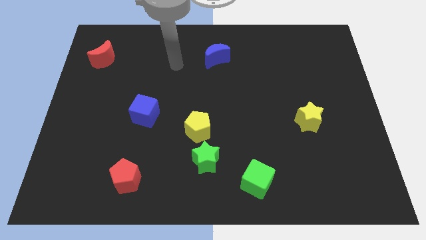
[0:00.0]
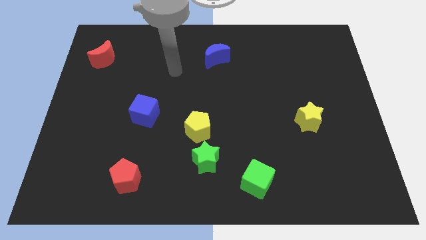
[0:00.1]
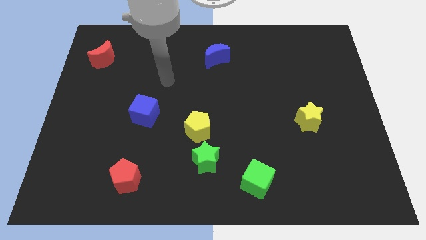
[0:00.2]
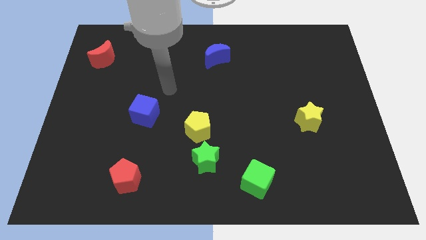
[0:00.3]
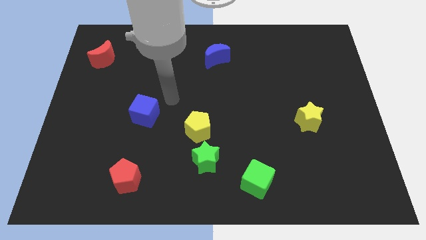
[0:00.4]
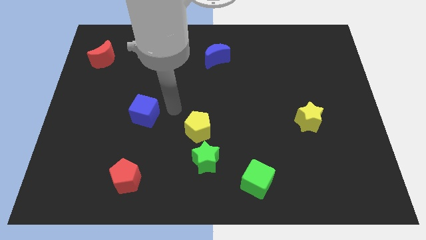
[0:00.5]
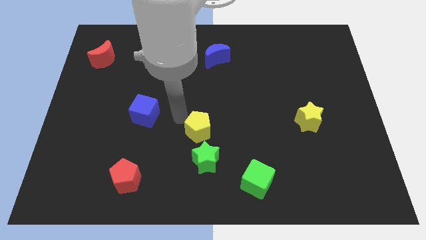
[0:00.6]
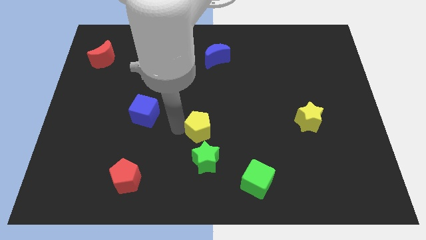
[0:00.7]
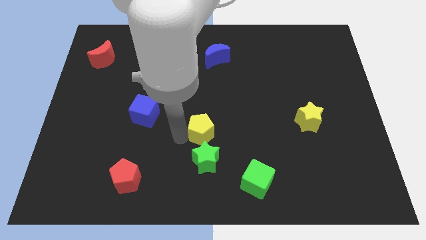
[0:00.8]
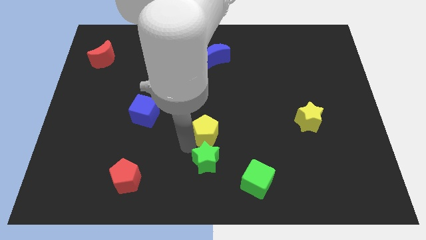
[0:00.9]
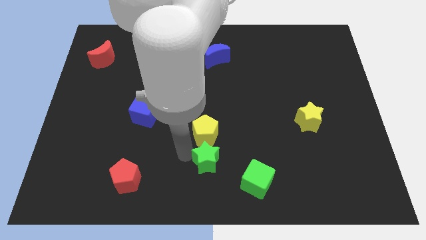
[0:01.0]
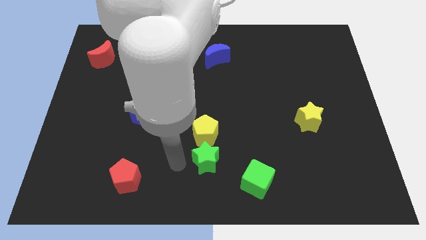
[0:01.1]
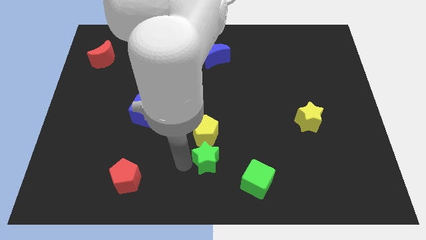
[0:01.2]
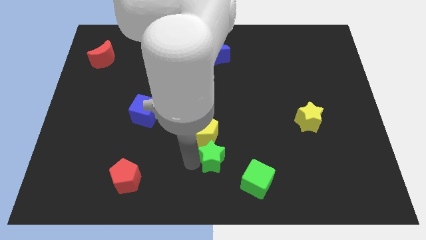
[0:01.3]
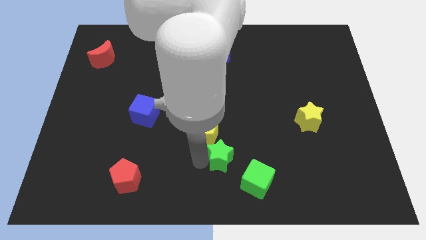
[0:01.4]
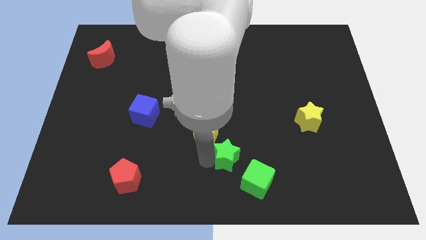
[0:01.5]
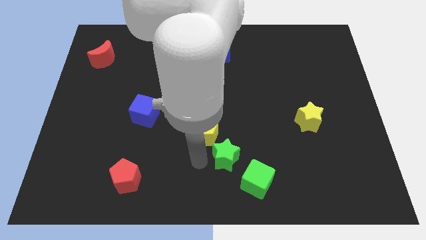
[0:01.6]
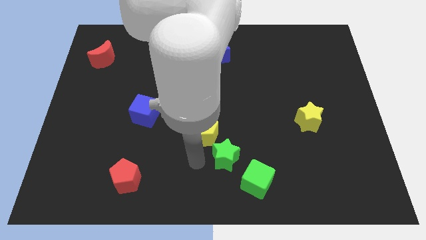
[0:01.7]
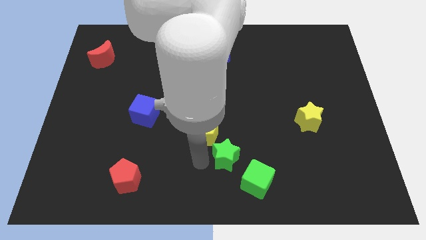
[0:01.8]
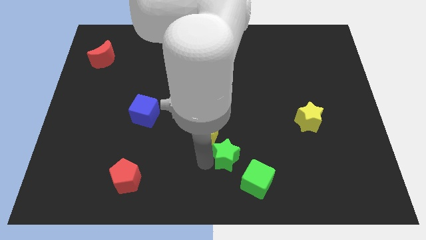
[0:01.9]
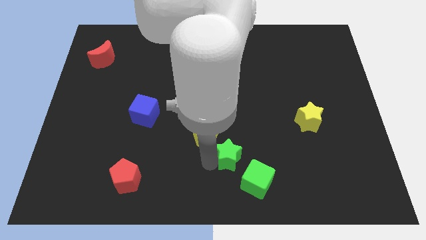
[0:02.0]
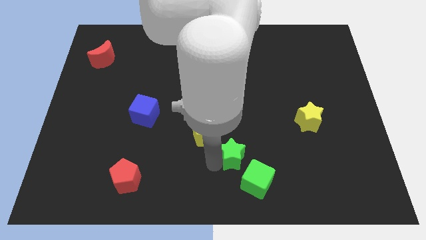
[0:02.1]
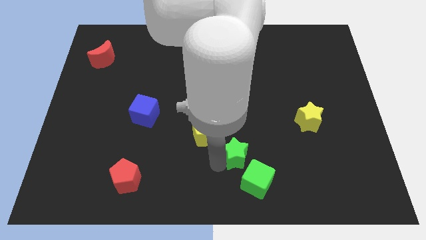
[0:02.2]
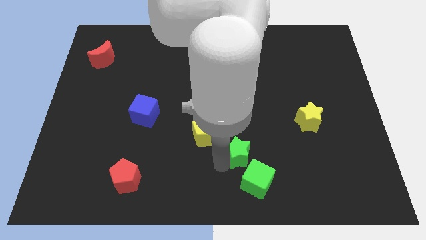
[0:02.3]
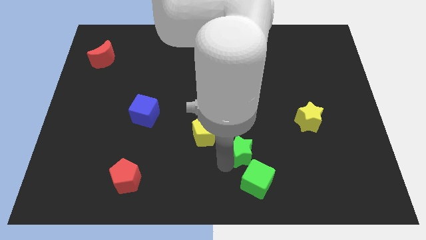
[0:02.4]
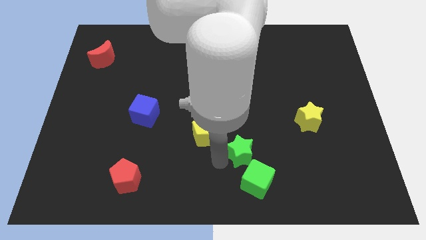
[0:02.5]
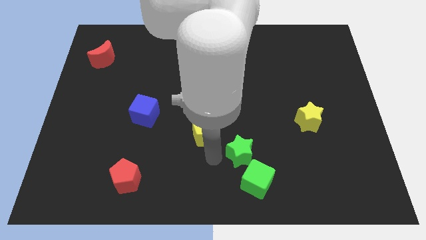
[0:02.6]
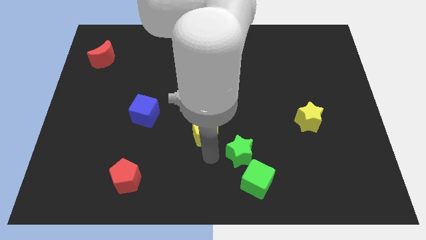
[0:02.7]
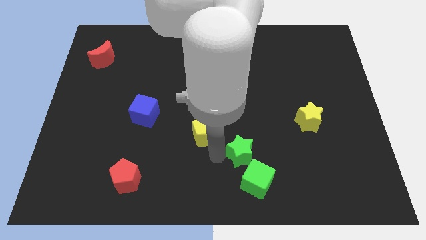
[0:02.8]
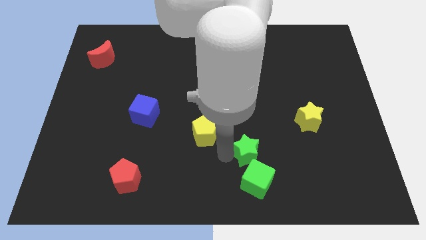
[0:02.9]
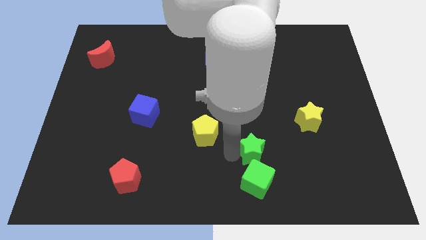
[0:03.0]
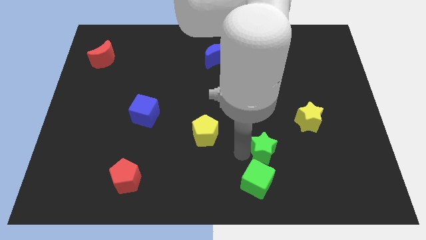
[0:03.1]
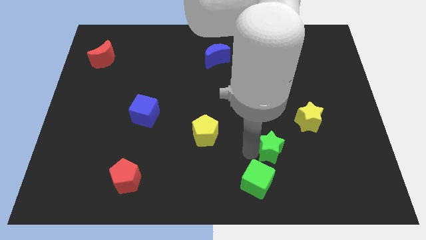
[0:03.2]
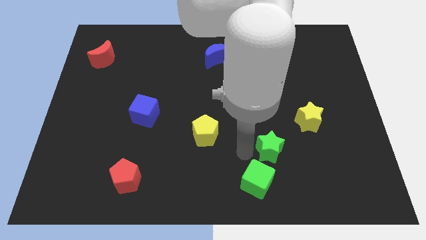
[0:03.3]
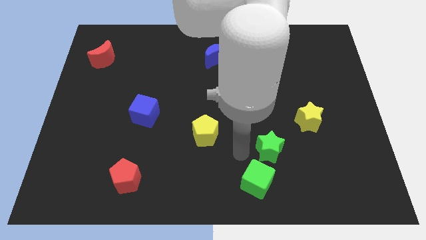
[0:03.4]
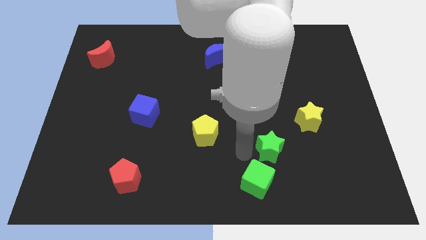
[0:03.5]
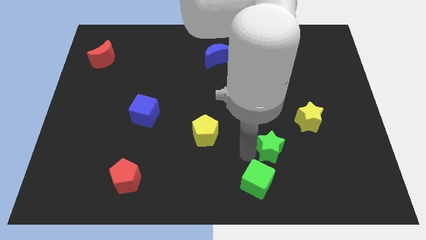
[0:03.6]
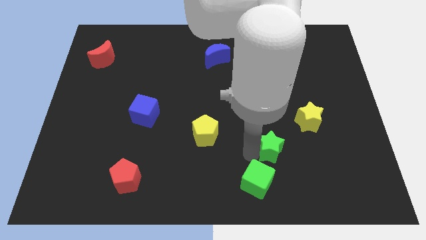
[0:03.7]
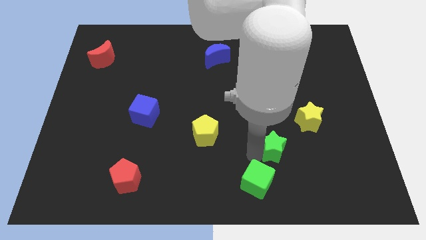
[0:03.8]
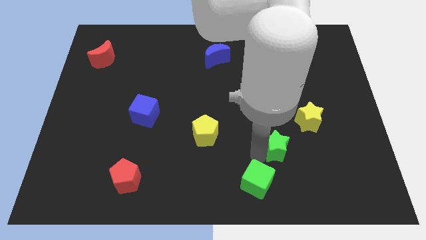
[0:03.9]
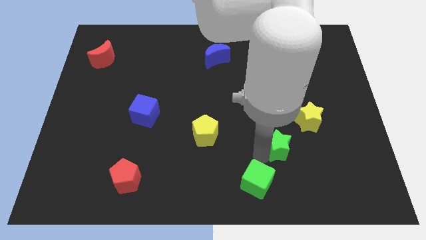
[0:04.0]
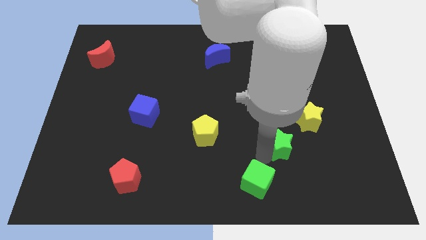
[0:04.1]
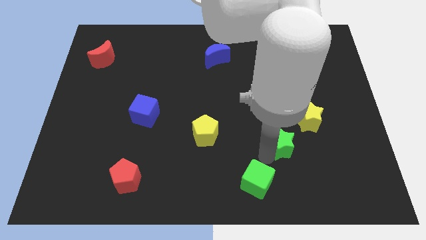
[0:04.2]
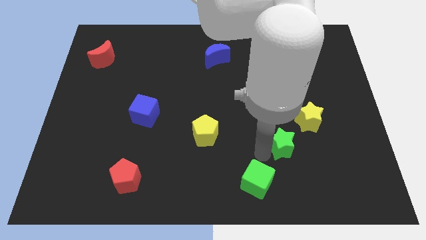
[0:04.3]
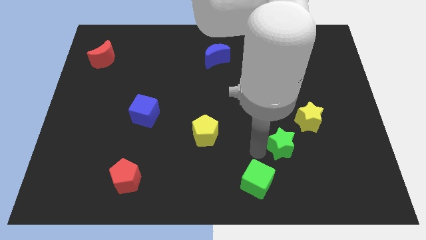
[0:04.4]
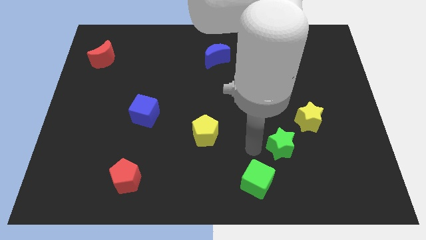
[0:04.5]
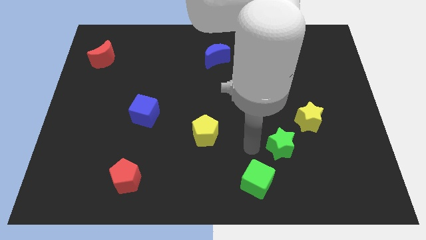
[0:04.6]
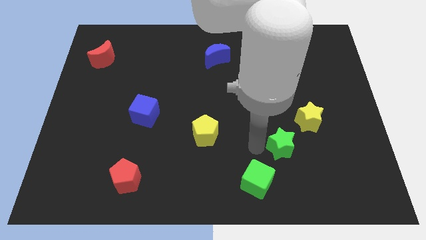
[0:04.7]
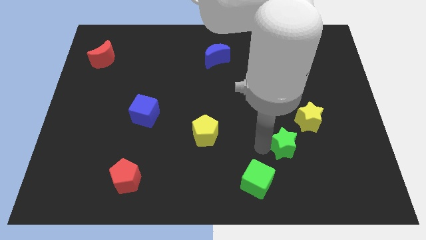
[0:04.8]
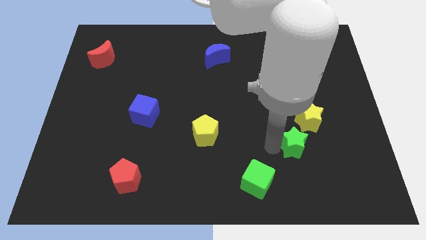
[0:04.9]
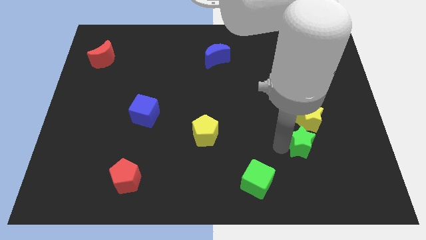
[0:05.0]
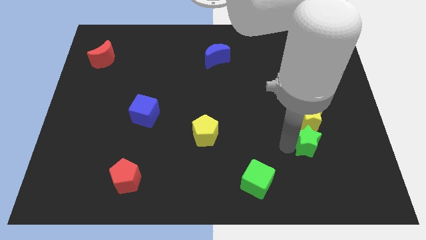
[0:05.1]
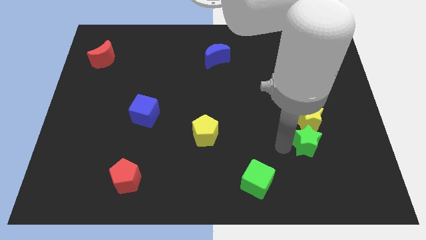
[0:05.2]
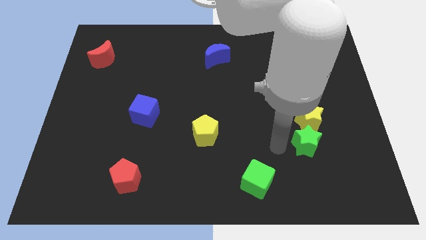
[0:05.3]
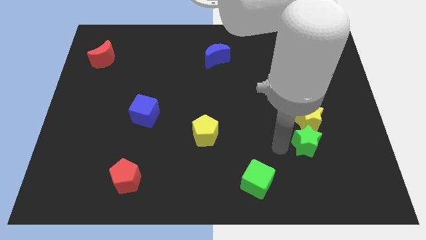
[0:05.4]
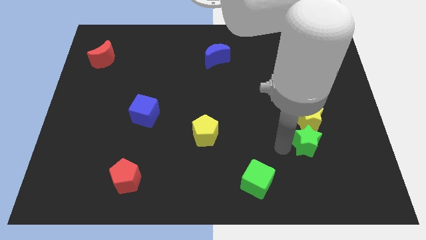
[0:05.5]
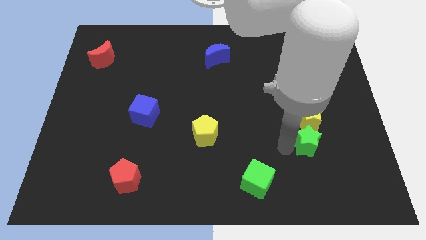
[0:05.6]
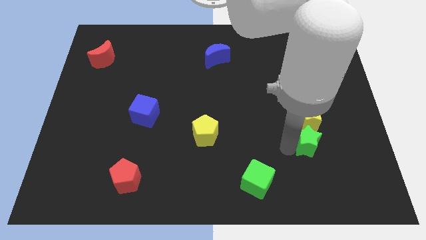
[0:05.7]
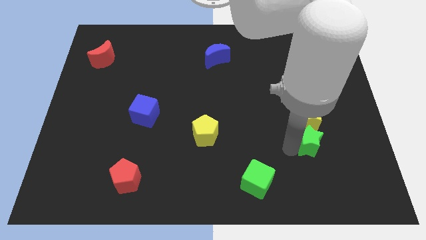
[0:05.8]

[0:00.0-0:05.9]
slide the green star to the bottom right side of the yellow star

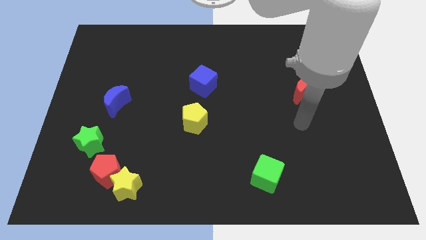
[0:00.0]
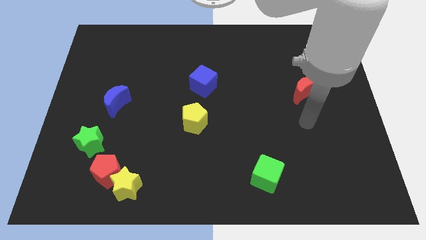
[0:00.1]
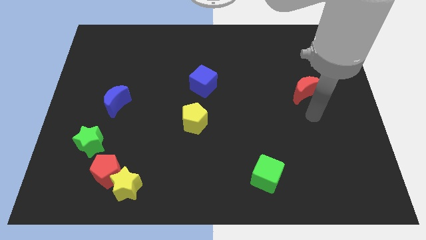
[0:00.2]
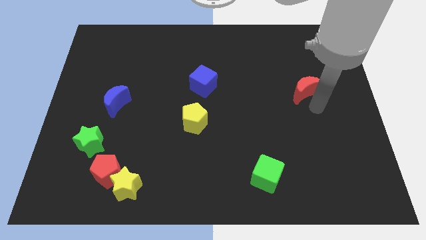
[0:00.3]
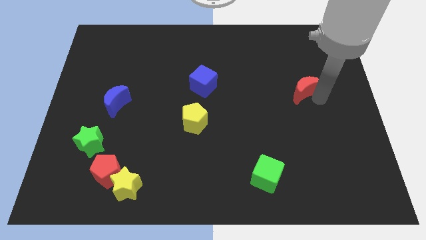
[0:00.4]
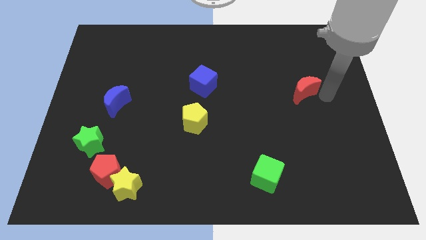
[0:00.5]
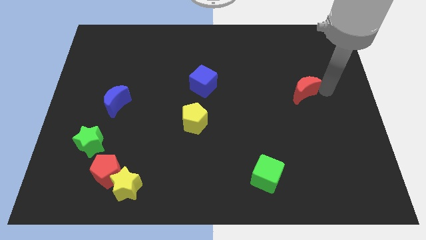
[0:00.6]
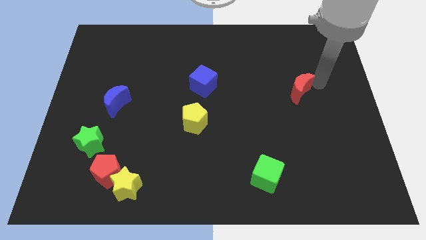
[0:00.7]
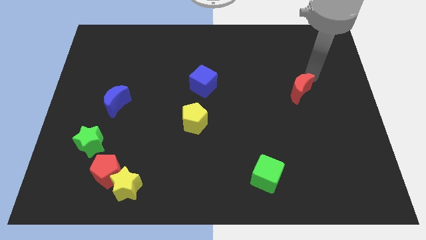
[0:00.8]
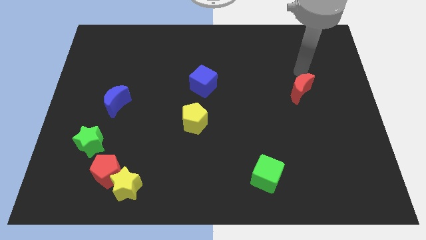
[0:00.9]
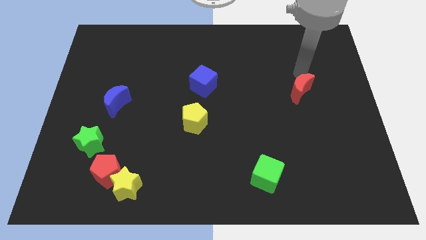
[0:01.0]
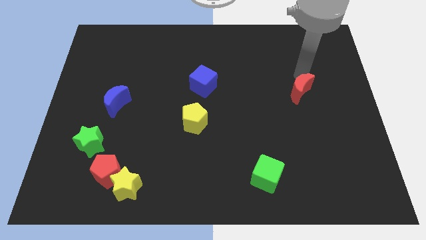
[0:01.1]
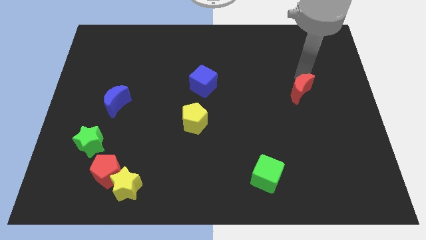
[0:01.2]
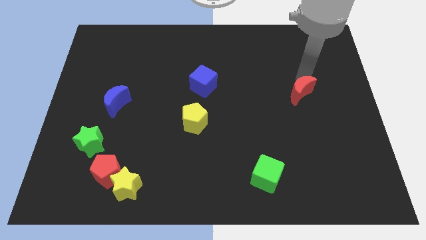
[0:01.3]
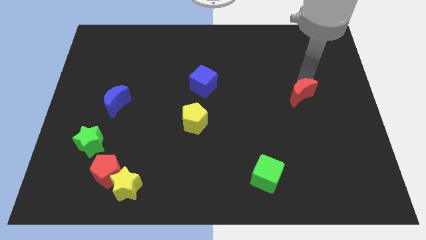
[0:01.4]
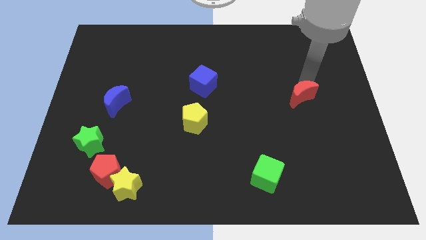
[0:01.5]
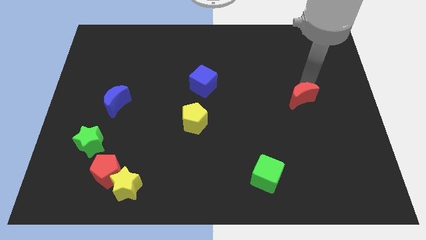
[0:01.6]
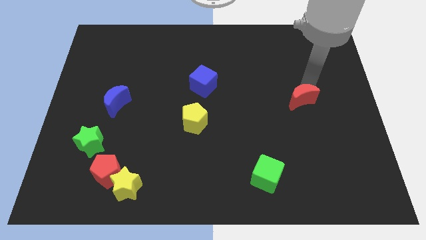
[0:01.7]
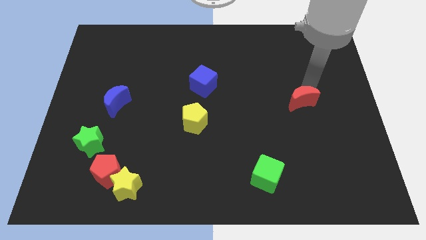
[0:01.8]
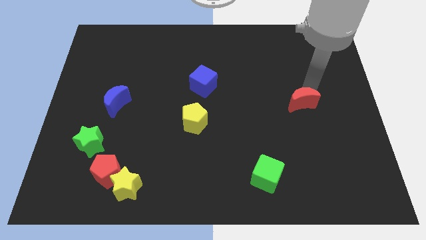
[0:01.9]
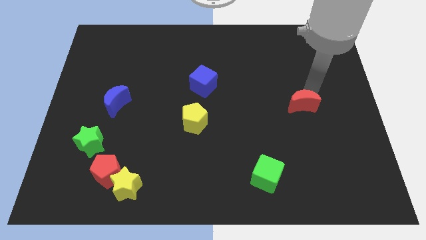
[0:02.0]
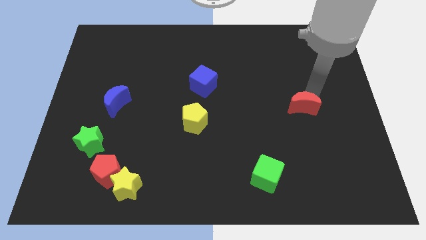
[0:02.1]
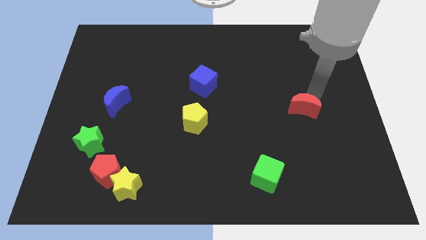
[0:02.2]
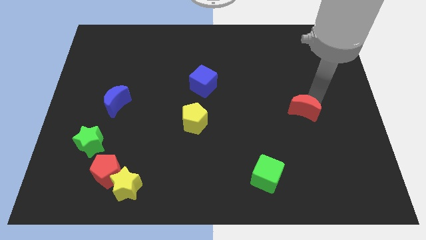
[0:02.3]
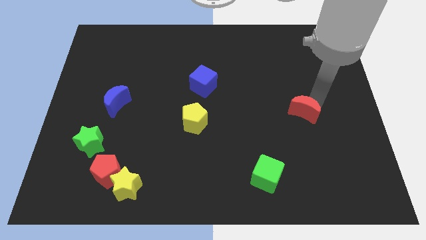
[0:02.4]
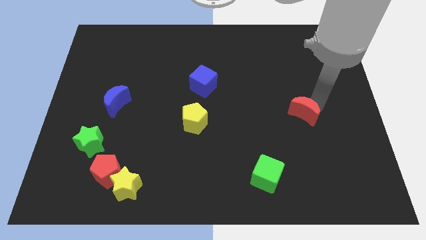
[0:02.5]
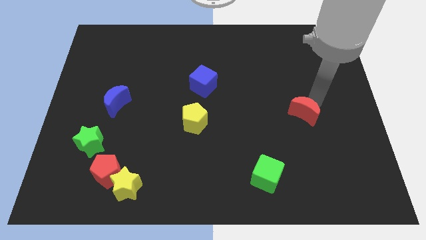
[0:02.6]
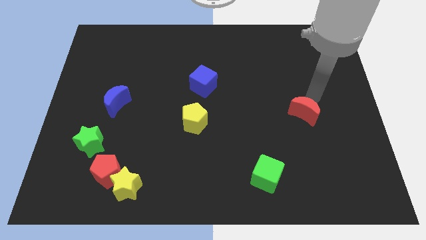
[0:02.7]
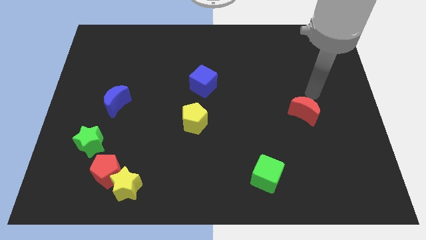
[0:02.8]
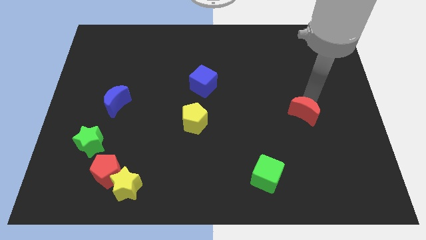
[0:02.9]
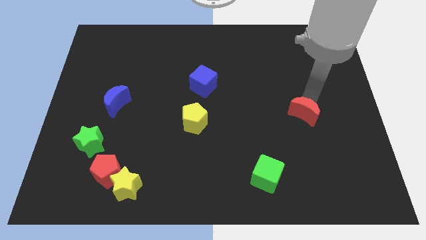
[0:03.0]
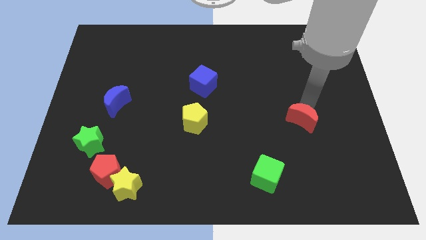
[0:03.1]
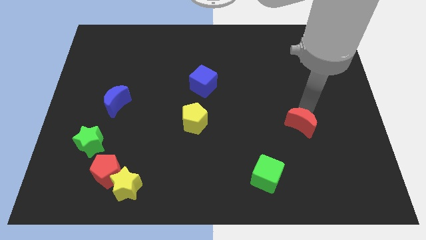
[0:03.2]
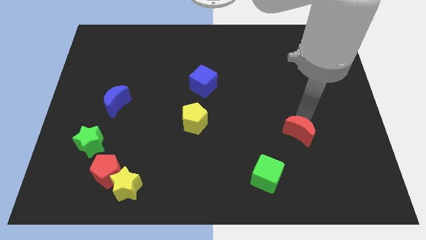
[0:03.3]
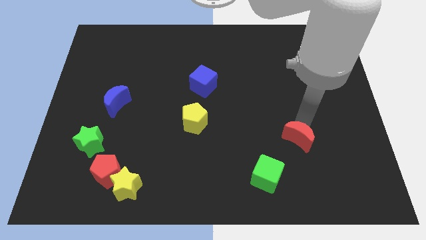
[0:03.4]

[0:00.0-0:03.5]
put the red moon to the top right side of the green cube
